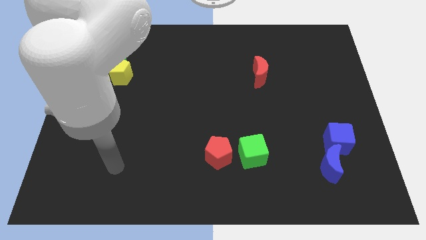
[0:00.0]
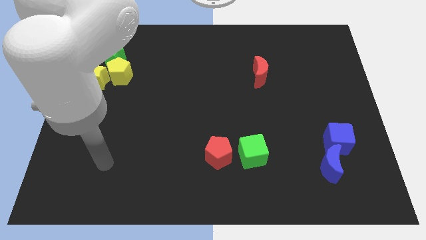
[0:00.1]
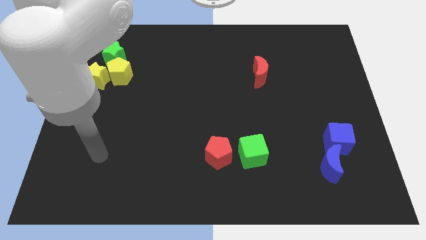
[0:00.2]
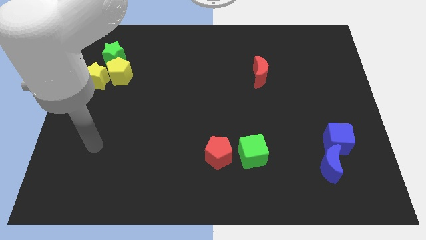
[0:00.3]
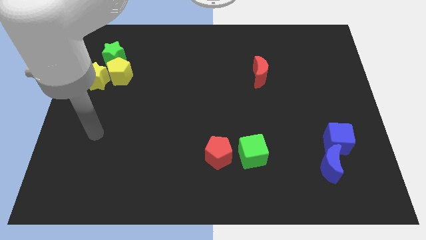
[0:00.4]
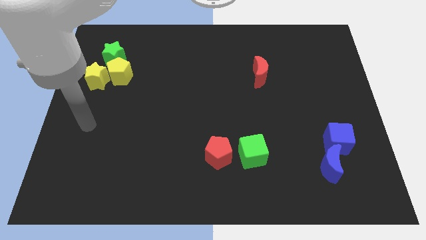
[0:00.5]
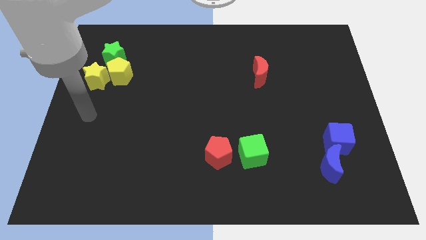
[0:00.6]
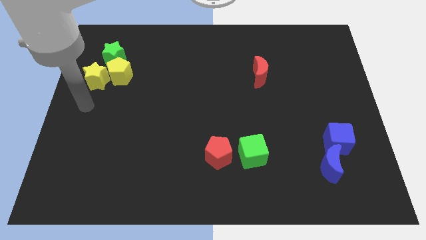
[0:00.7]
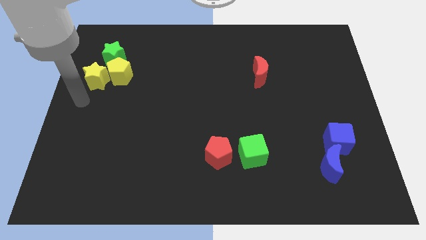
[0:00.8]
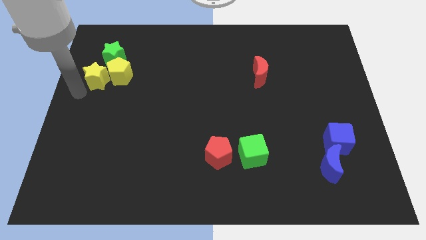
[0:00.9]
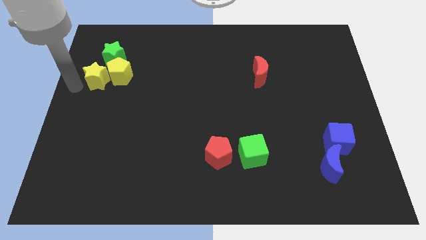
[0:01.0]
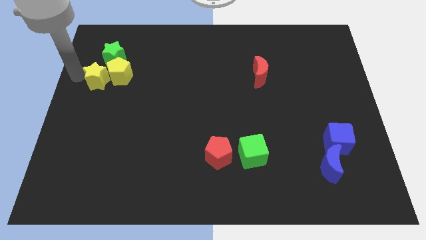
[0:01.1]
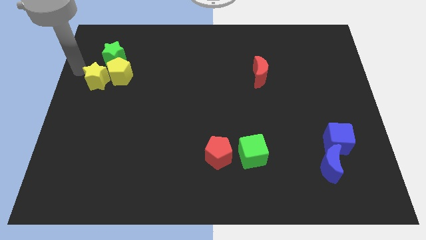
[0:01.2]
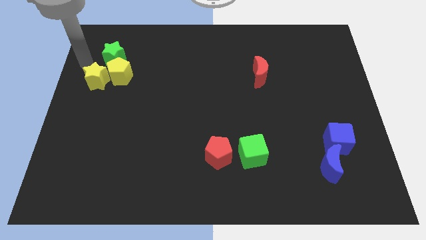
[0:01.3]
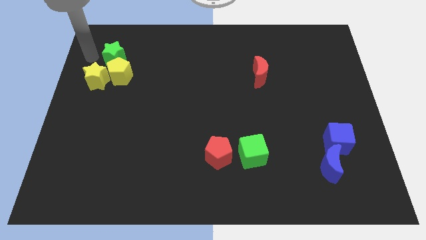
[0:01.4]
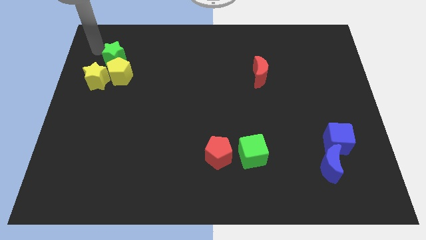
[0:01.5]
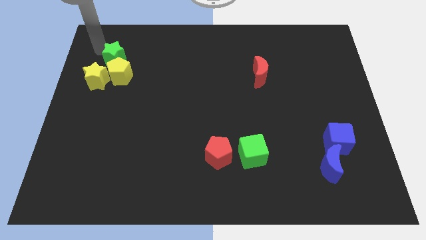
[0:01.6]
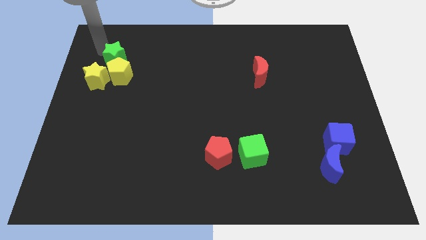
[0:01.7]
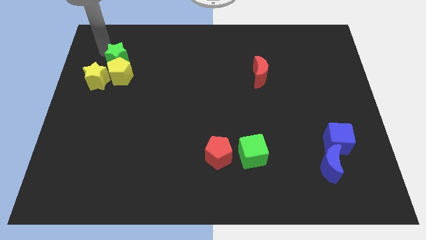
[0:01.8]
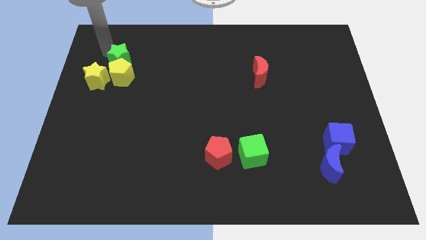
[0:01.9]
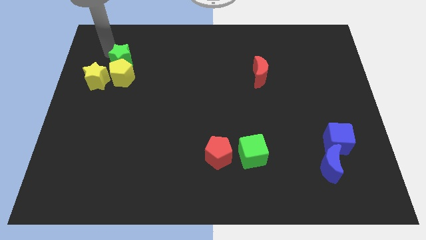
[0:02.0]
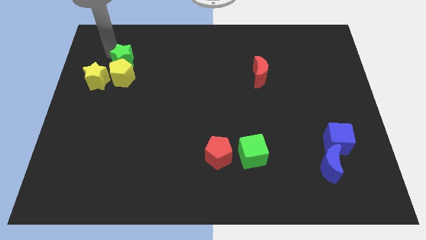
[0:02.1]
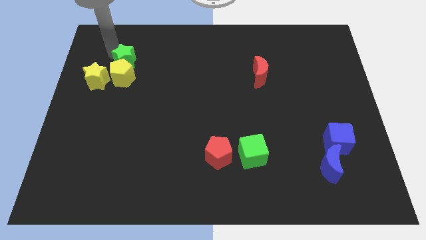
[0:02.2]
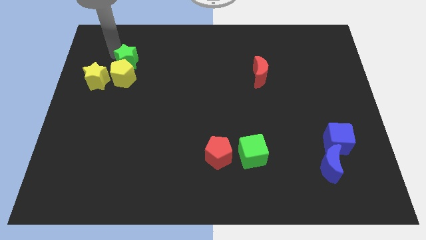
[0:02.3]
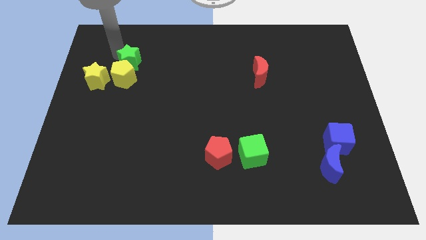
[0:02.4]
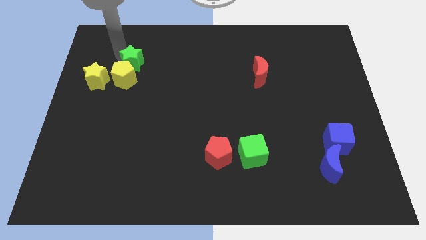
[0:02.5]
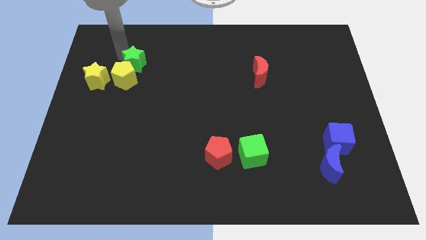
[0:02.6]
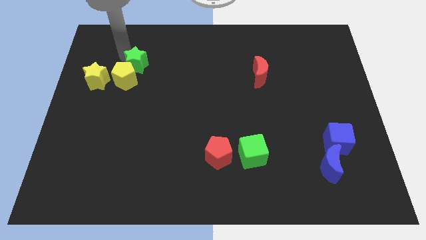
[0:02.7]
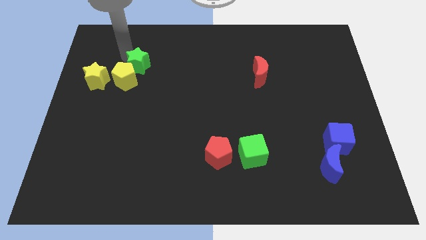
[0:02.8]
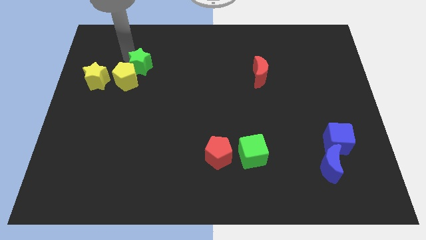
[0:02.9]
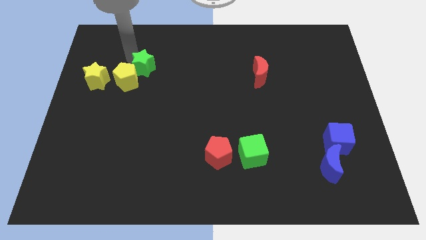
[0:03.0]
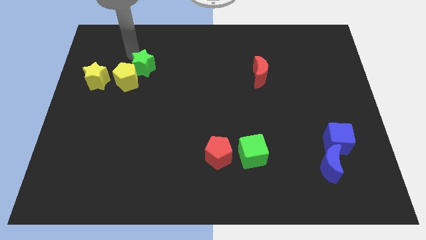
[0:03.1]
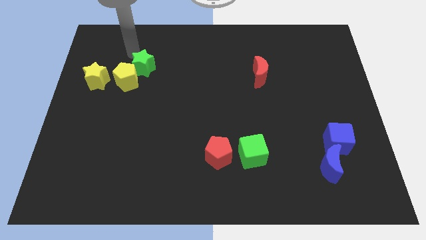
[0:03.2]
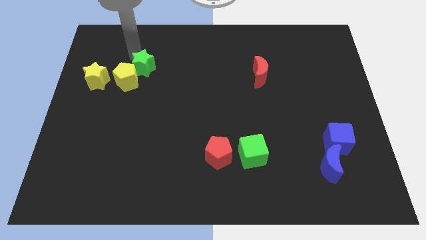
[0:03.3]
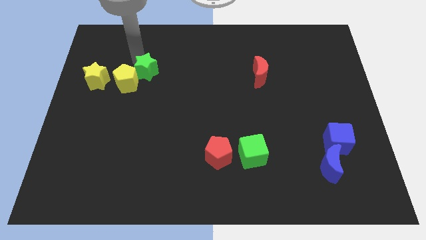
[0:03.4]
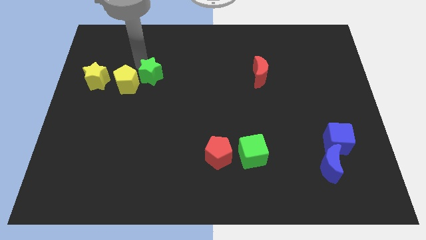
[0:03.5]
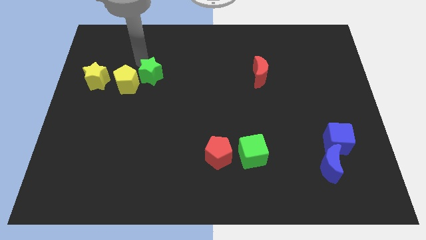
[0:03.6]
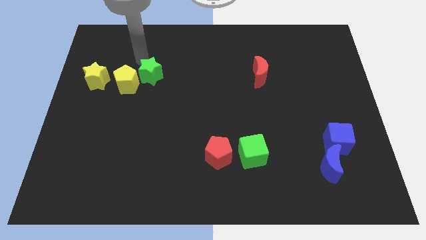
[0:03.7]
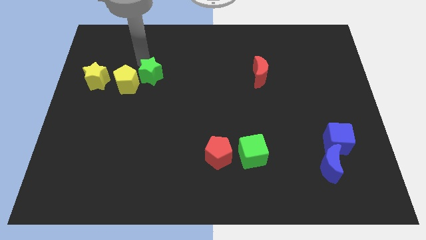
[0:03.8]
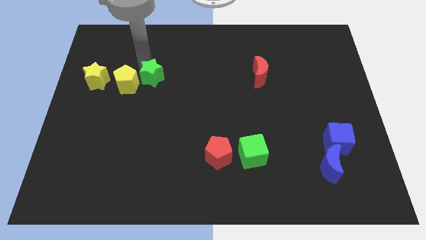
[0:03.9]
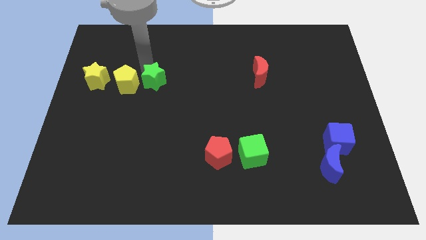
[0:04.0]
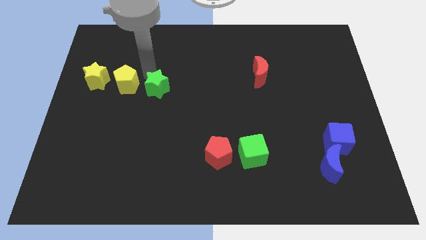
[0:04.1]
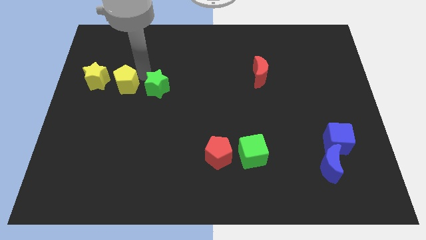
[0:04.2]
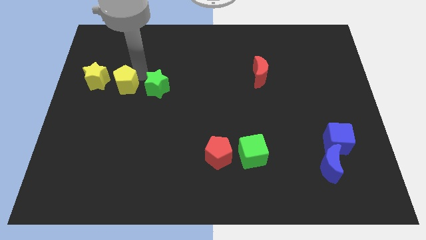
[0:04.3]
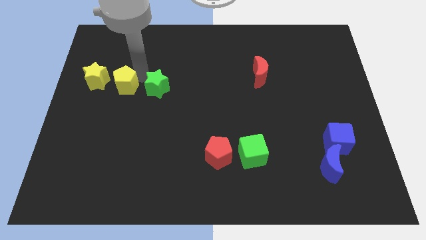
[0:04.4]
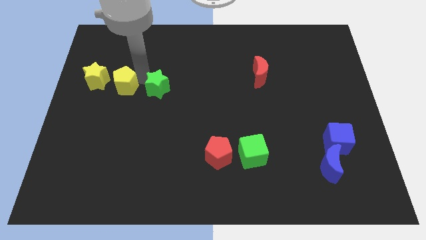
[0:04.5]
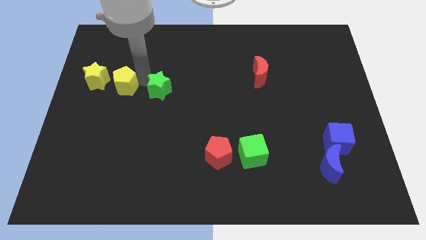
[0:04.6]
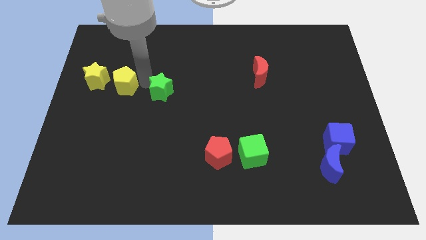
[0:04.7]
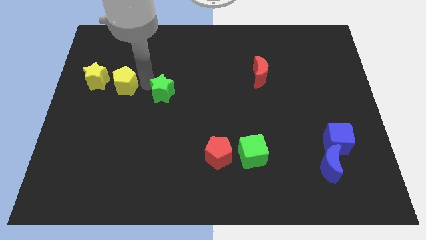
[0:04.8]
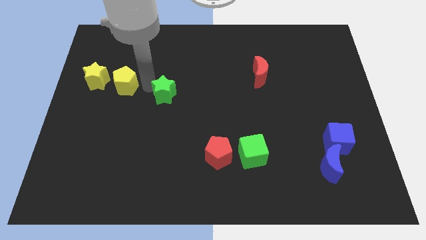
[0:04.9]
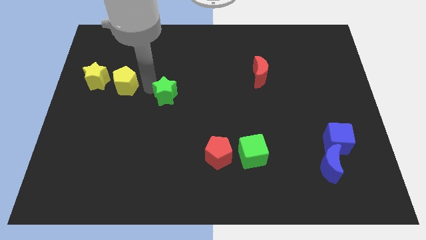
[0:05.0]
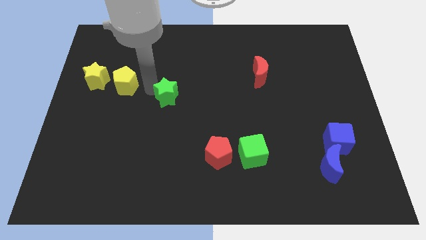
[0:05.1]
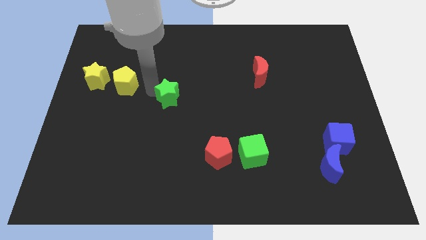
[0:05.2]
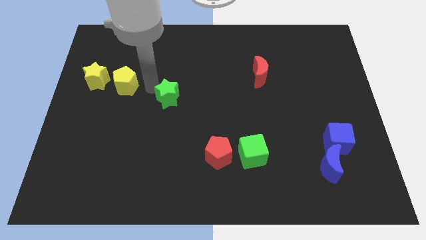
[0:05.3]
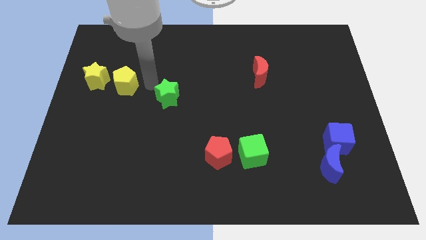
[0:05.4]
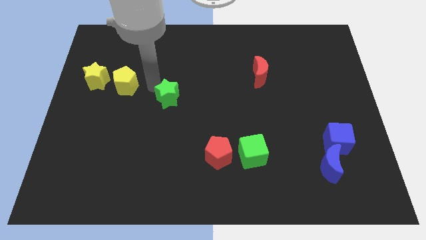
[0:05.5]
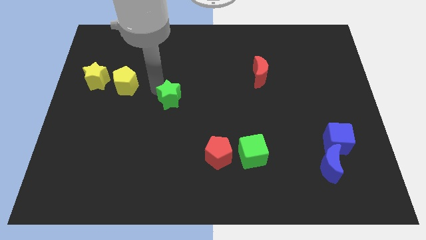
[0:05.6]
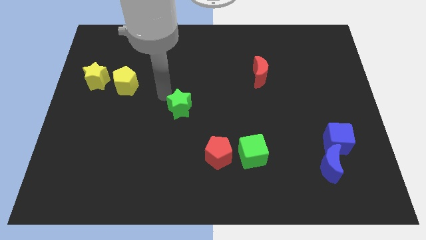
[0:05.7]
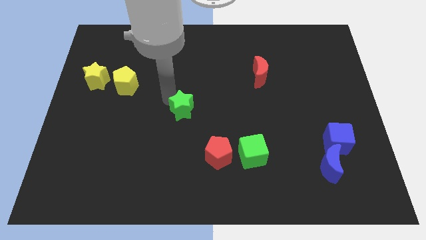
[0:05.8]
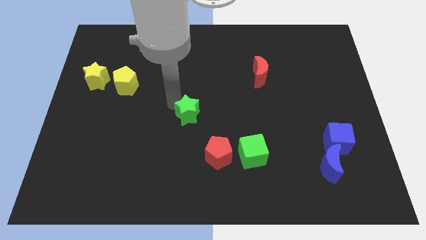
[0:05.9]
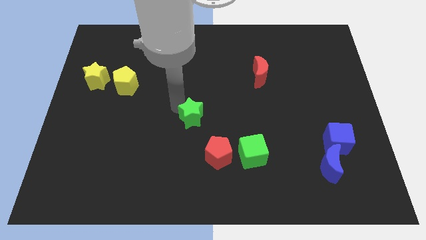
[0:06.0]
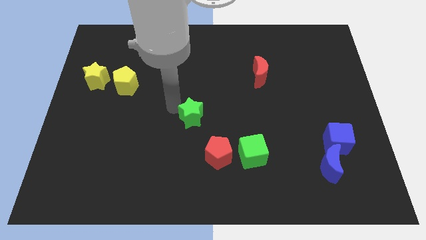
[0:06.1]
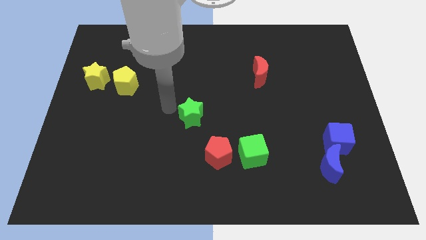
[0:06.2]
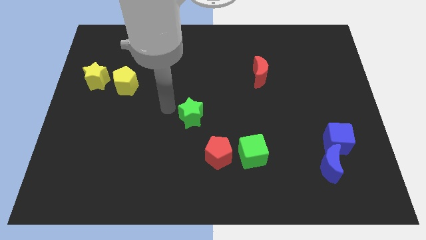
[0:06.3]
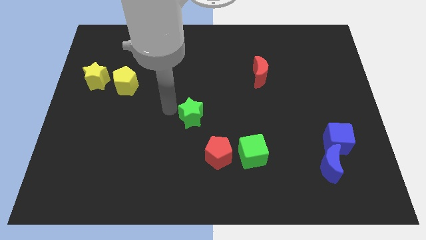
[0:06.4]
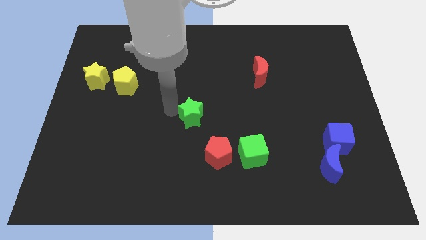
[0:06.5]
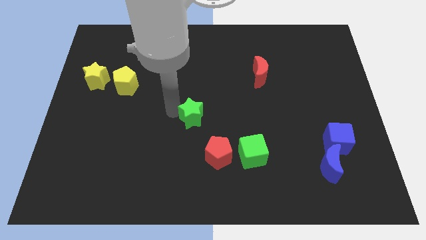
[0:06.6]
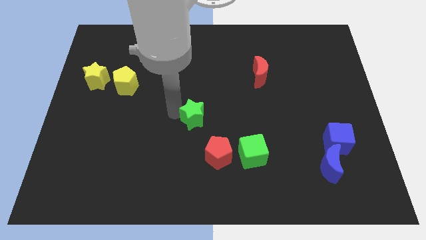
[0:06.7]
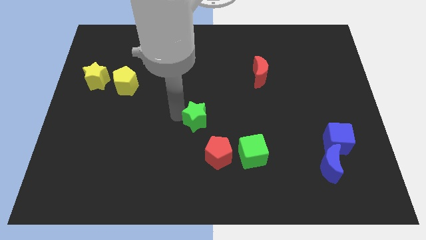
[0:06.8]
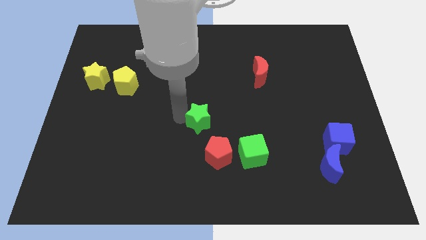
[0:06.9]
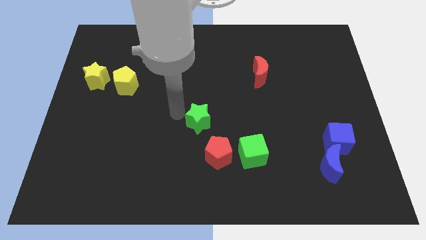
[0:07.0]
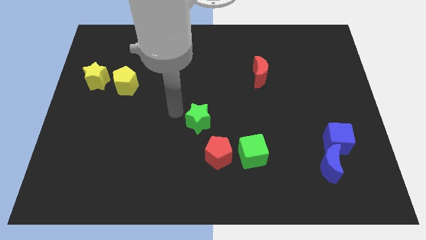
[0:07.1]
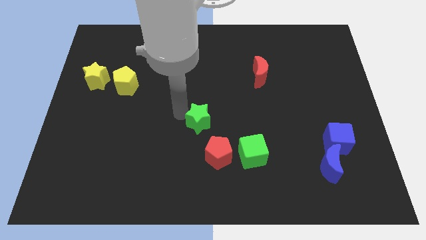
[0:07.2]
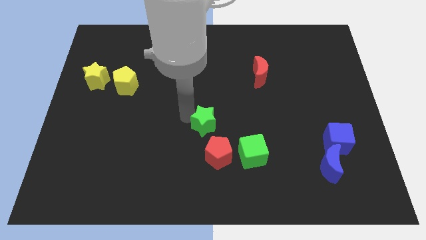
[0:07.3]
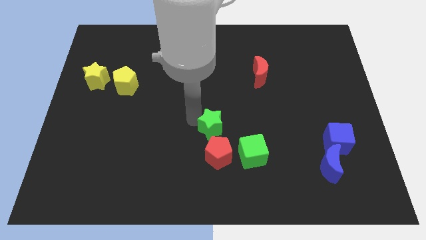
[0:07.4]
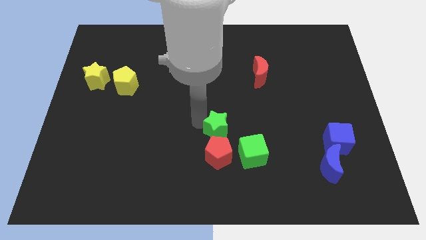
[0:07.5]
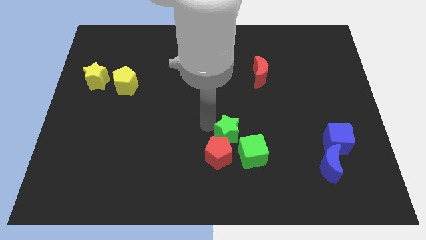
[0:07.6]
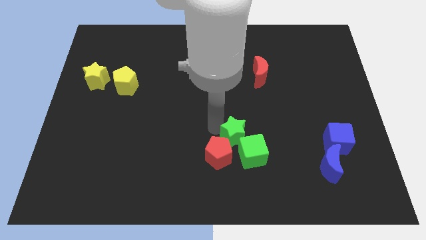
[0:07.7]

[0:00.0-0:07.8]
put the green star towards the green cube
